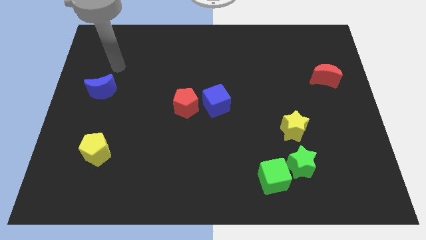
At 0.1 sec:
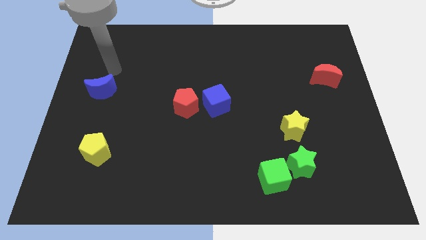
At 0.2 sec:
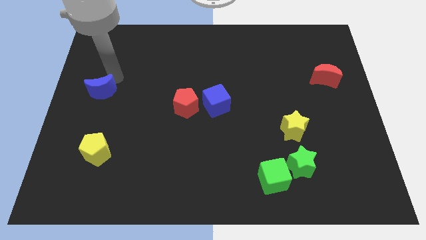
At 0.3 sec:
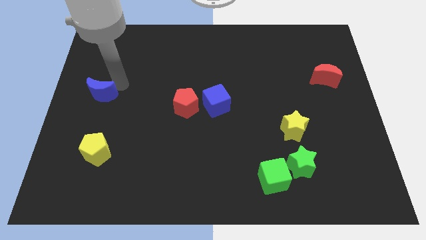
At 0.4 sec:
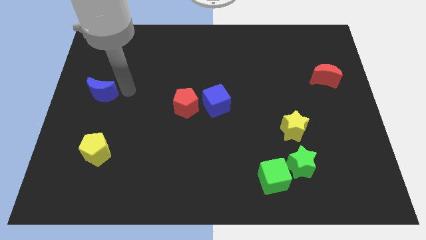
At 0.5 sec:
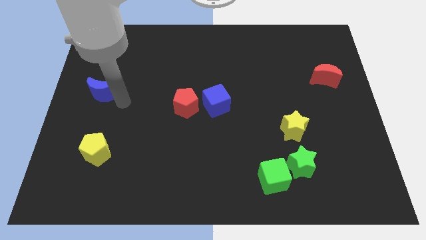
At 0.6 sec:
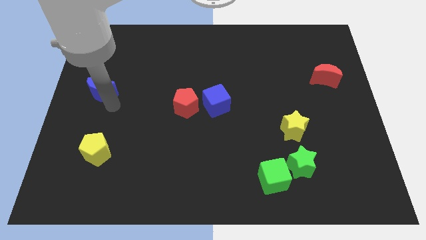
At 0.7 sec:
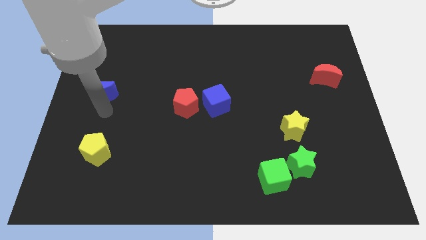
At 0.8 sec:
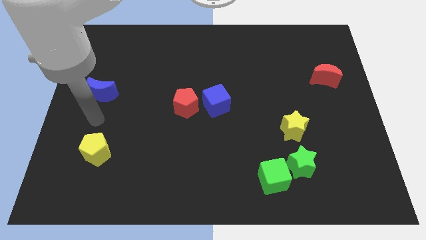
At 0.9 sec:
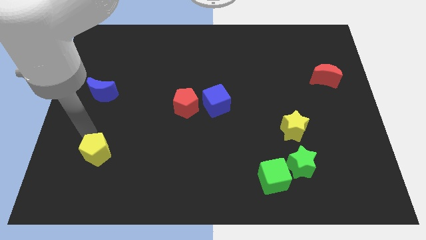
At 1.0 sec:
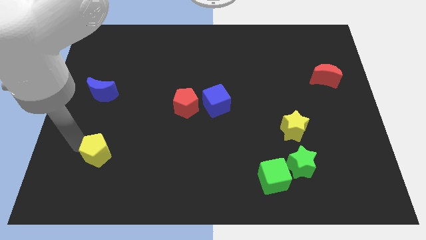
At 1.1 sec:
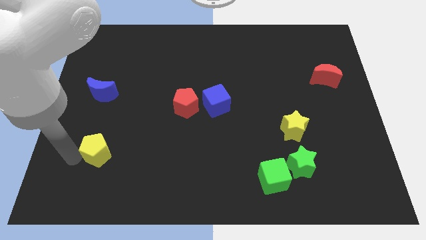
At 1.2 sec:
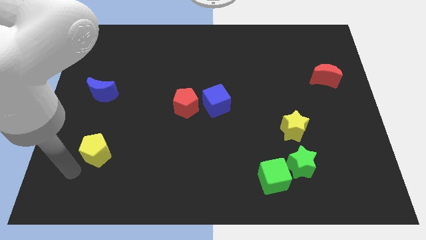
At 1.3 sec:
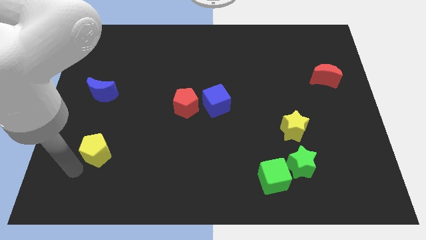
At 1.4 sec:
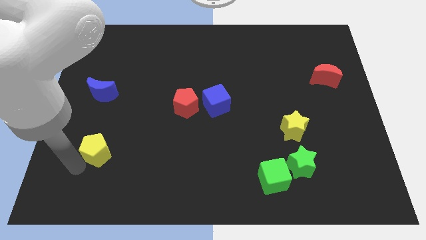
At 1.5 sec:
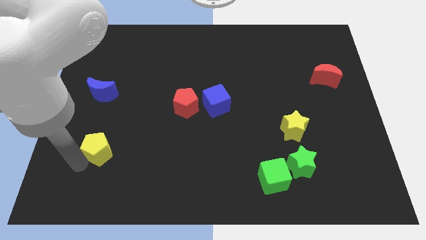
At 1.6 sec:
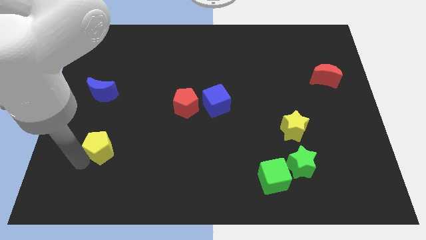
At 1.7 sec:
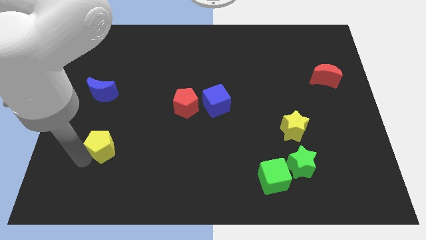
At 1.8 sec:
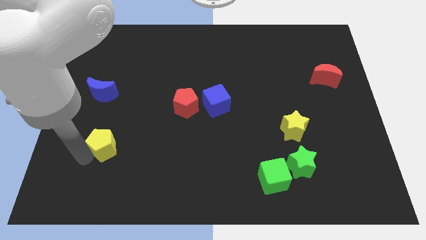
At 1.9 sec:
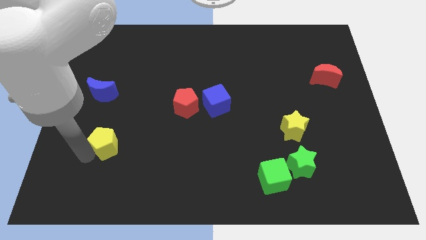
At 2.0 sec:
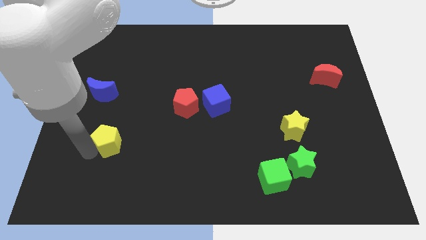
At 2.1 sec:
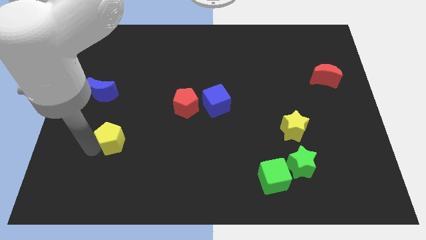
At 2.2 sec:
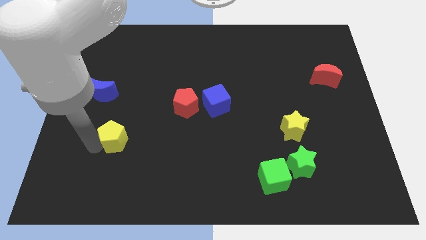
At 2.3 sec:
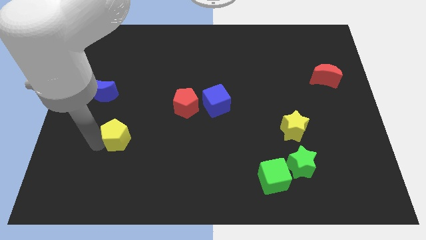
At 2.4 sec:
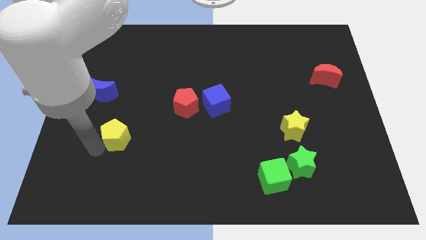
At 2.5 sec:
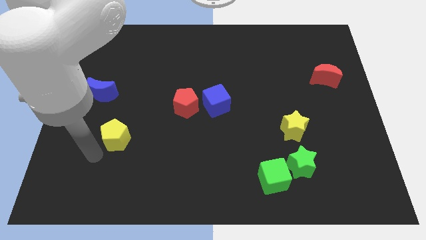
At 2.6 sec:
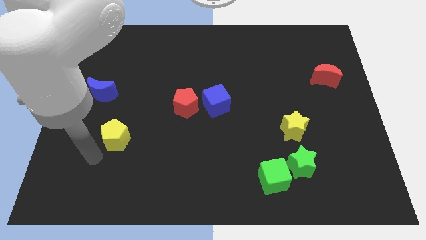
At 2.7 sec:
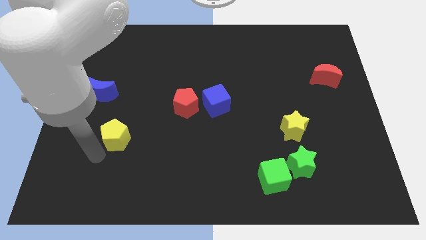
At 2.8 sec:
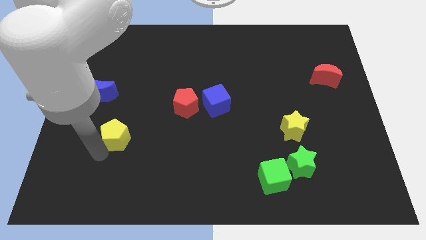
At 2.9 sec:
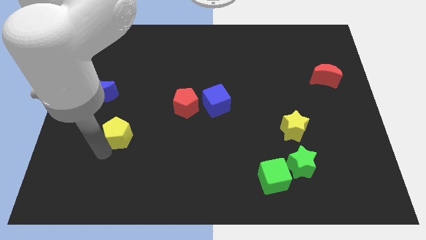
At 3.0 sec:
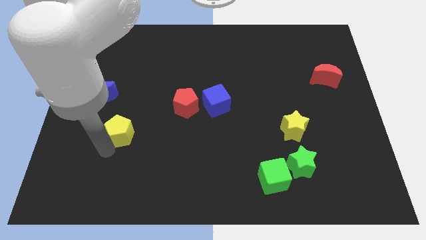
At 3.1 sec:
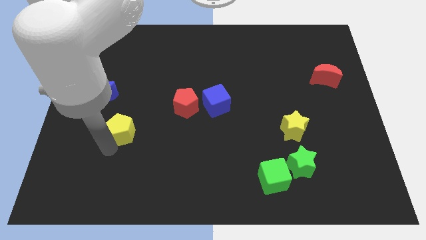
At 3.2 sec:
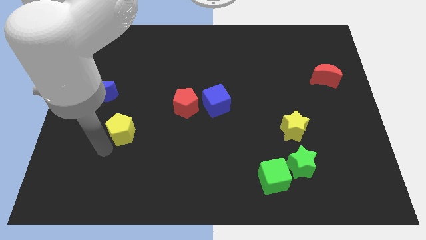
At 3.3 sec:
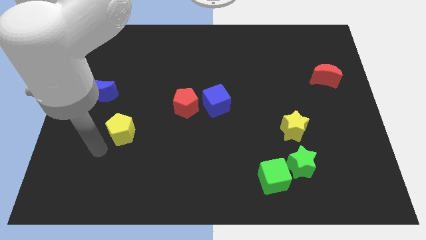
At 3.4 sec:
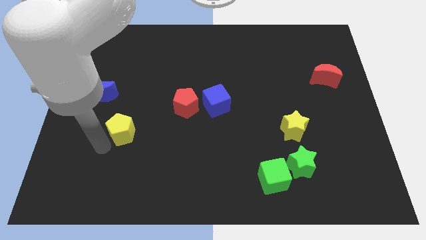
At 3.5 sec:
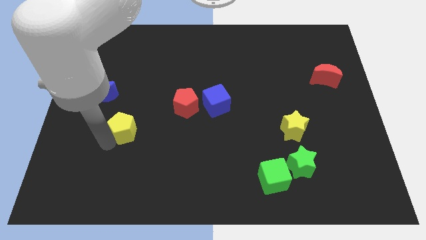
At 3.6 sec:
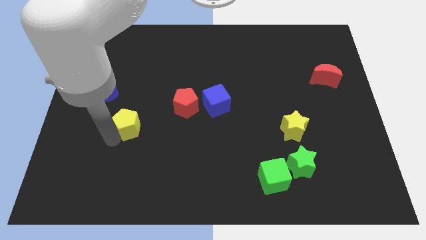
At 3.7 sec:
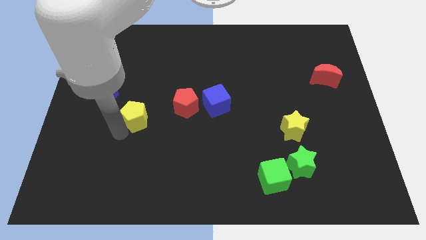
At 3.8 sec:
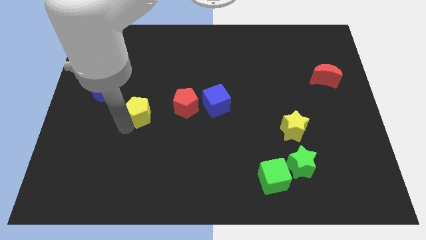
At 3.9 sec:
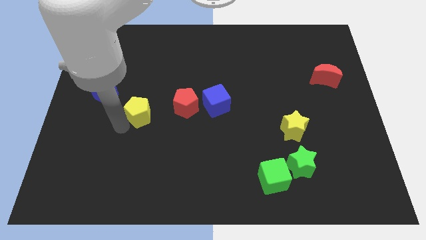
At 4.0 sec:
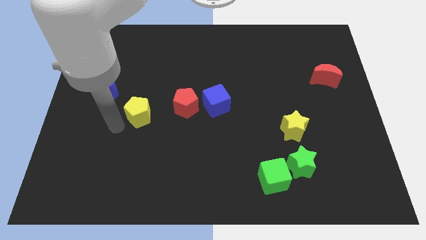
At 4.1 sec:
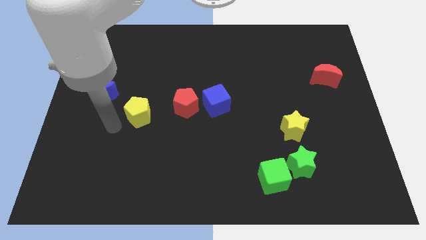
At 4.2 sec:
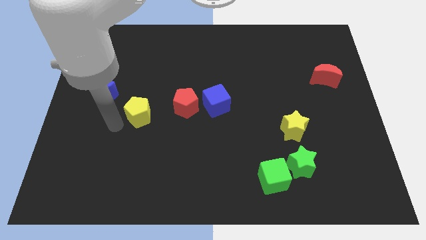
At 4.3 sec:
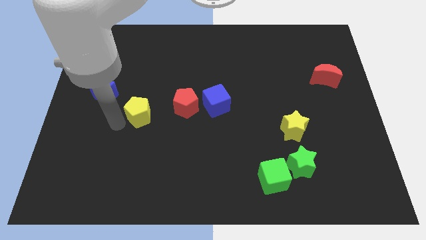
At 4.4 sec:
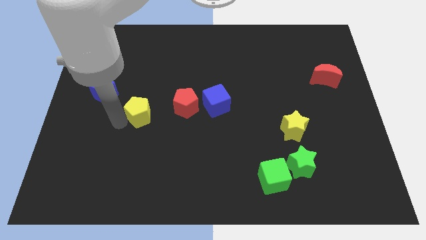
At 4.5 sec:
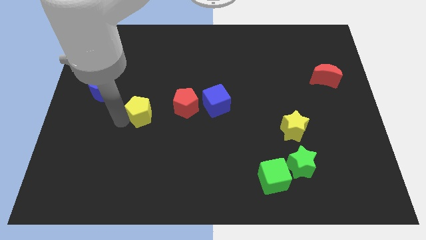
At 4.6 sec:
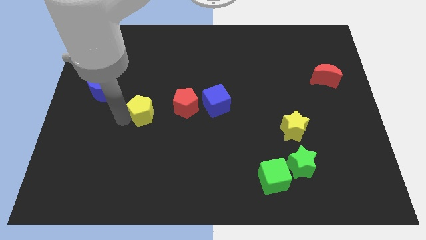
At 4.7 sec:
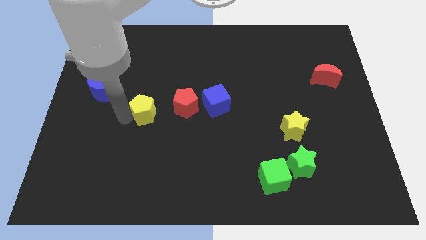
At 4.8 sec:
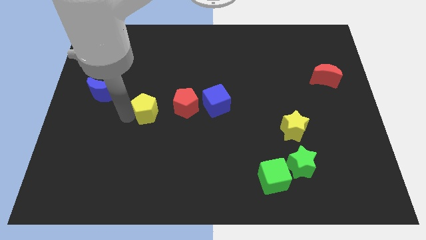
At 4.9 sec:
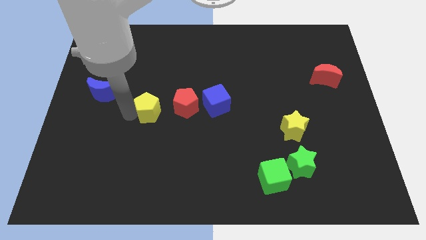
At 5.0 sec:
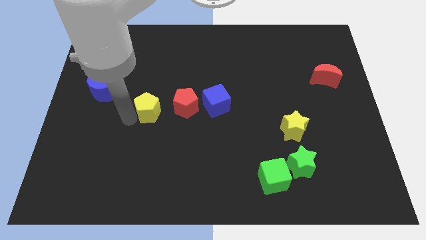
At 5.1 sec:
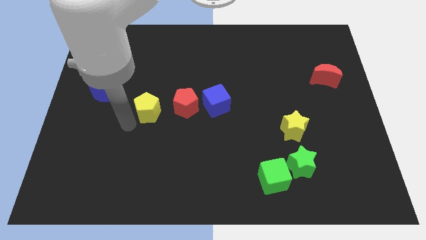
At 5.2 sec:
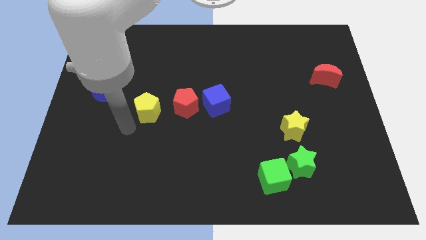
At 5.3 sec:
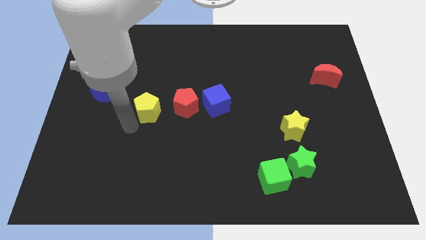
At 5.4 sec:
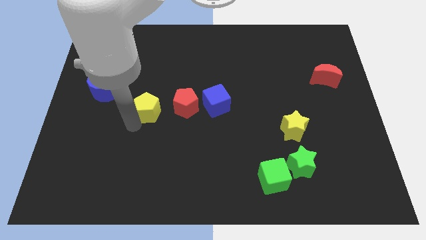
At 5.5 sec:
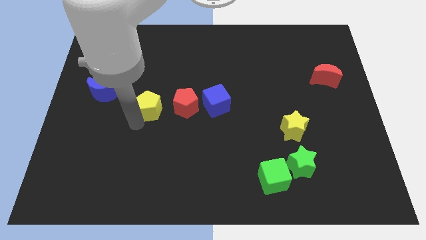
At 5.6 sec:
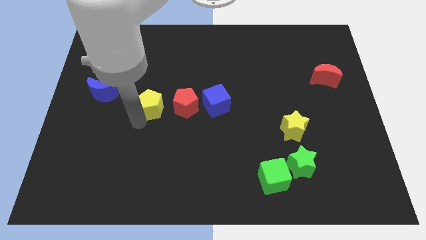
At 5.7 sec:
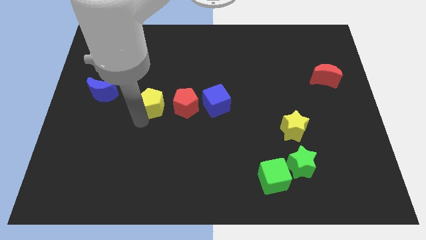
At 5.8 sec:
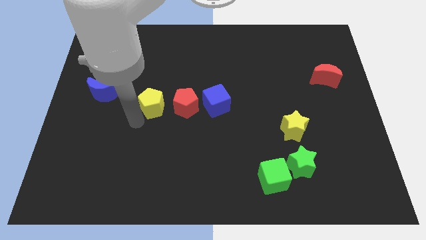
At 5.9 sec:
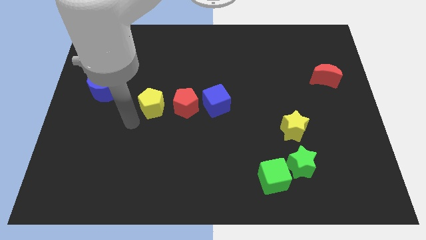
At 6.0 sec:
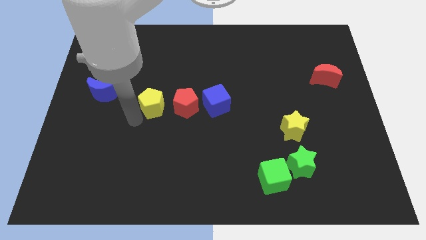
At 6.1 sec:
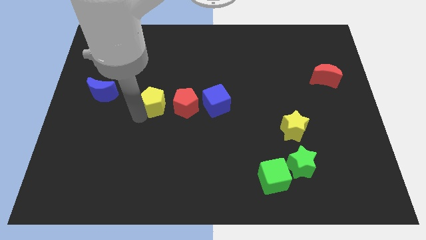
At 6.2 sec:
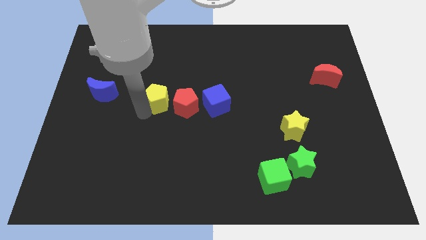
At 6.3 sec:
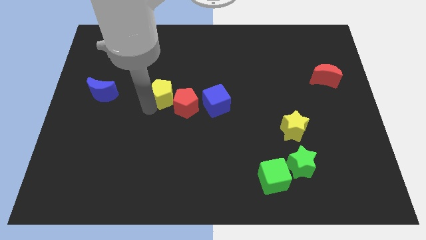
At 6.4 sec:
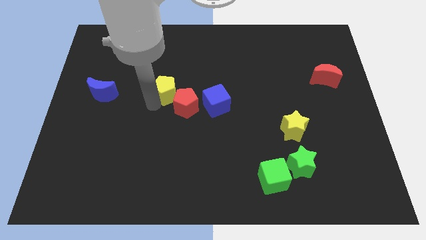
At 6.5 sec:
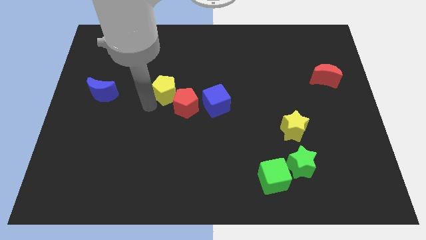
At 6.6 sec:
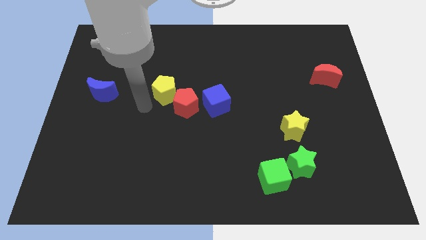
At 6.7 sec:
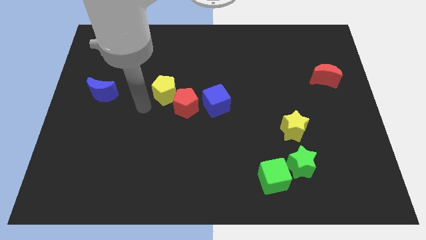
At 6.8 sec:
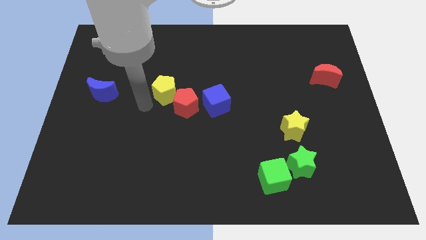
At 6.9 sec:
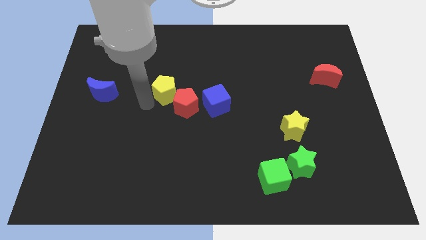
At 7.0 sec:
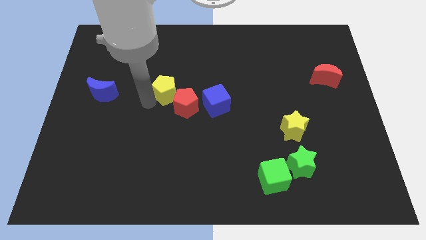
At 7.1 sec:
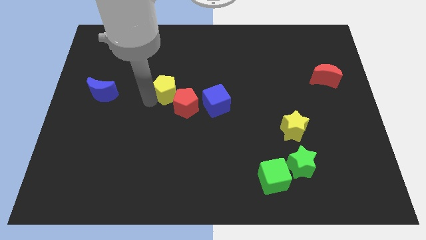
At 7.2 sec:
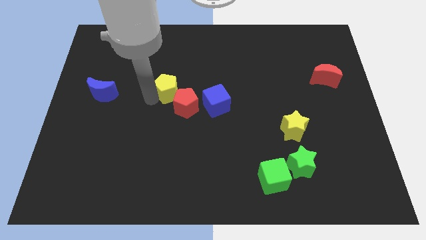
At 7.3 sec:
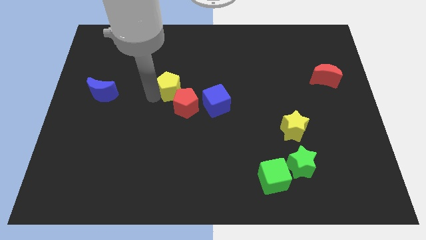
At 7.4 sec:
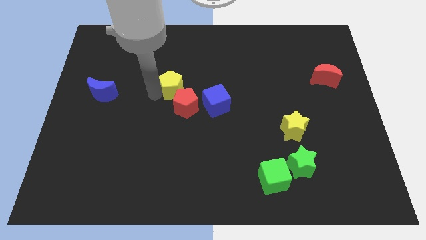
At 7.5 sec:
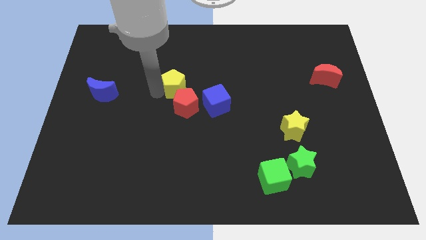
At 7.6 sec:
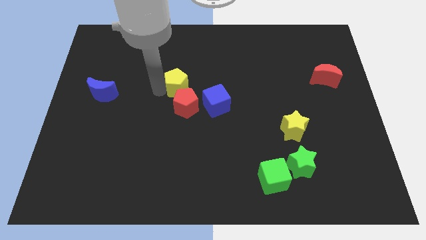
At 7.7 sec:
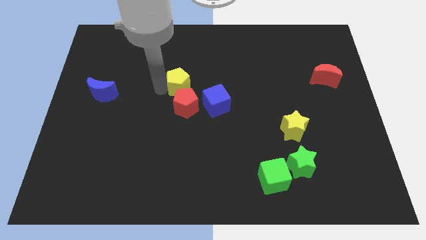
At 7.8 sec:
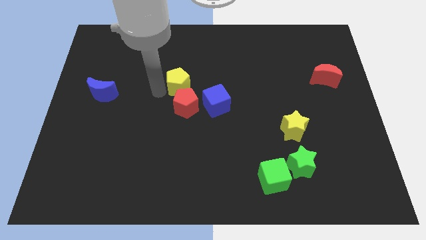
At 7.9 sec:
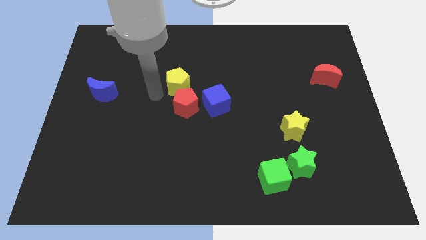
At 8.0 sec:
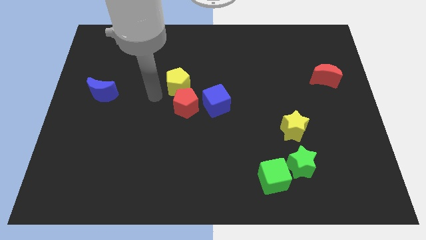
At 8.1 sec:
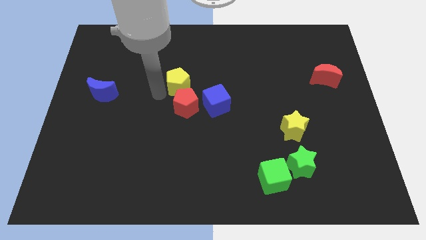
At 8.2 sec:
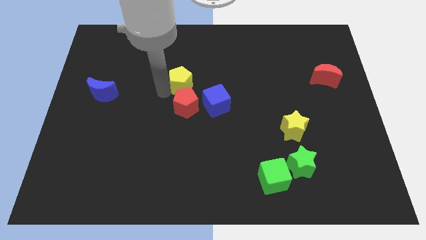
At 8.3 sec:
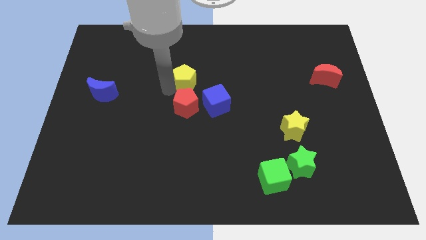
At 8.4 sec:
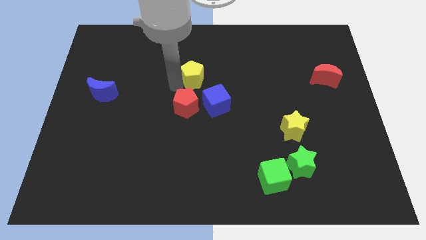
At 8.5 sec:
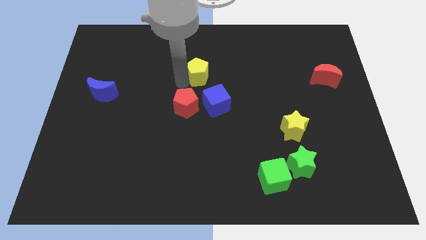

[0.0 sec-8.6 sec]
push the yellow pentagon to the top side of the blue cube
